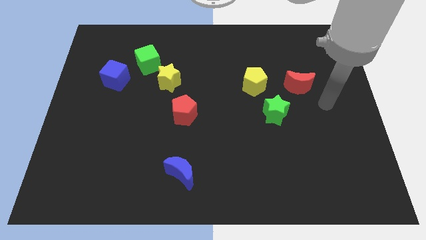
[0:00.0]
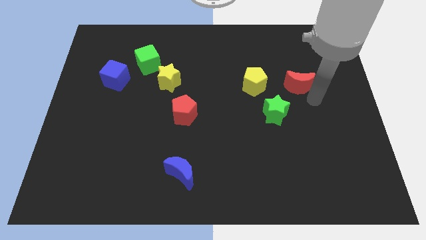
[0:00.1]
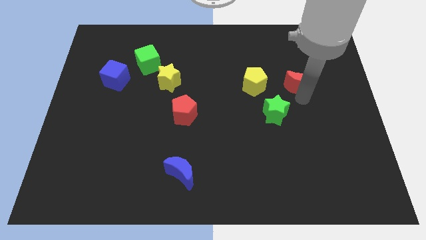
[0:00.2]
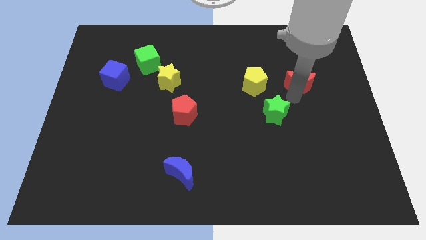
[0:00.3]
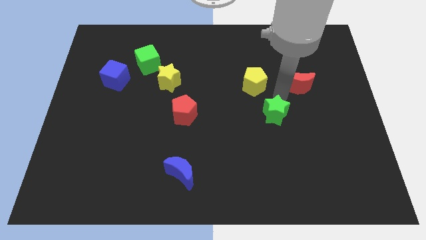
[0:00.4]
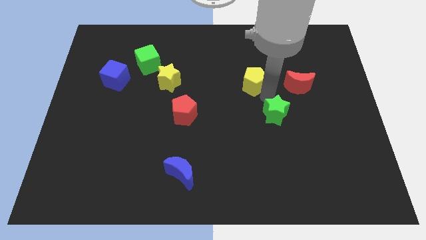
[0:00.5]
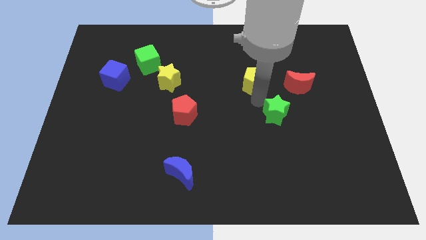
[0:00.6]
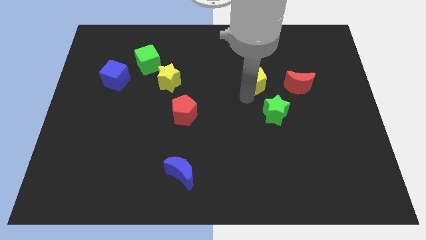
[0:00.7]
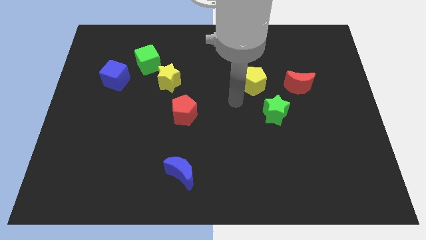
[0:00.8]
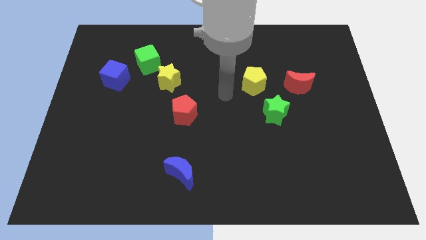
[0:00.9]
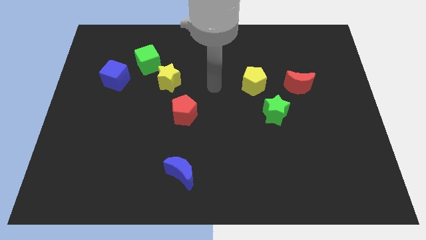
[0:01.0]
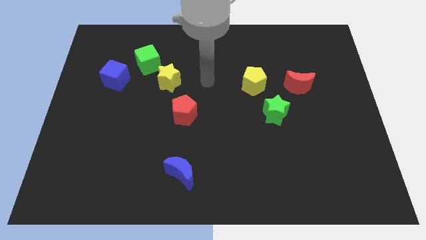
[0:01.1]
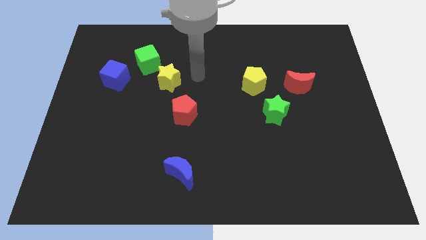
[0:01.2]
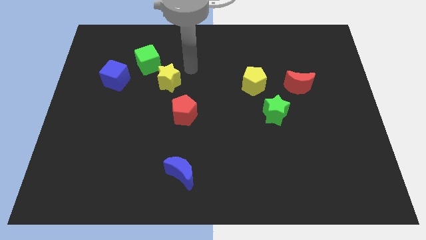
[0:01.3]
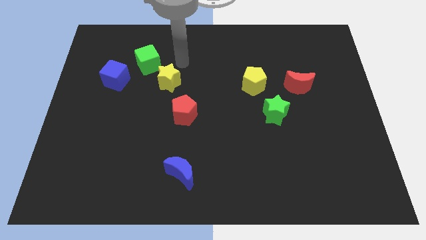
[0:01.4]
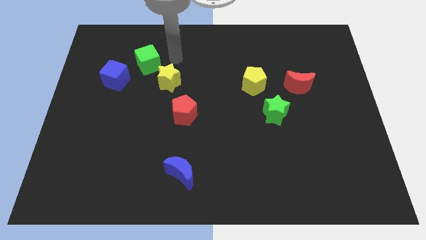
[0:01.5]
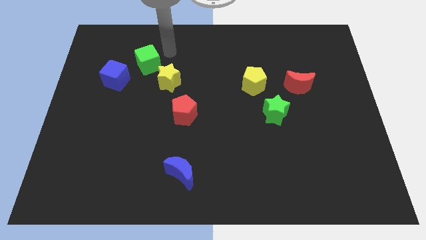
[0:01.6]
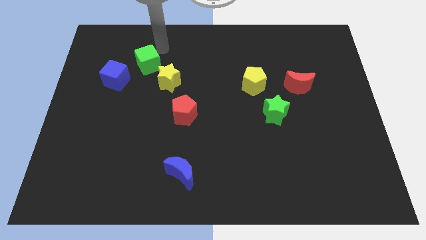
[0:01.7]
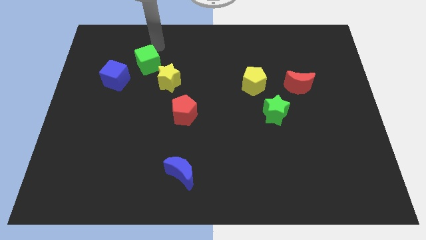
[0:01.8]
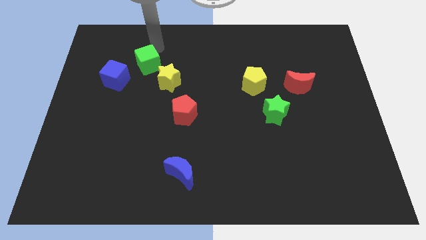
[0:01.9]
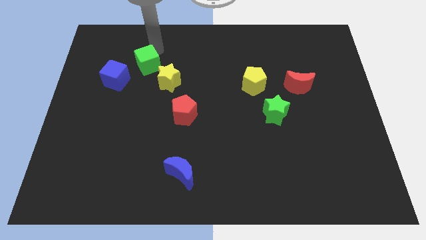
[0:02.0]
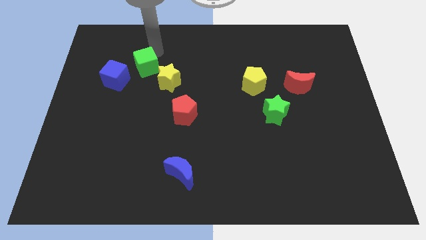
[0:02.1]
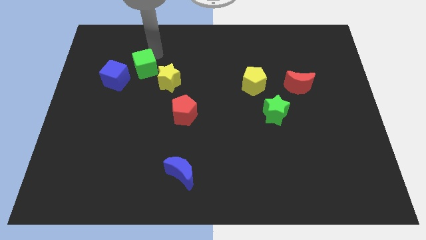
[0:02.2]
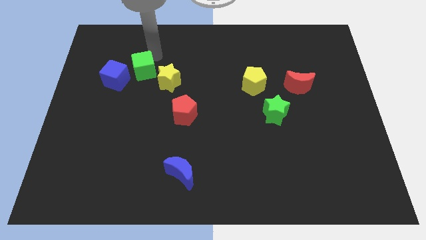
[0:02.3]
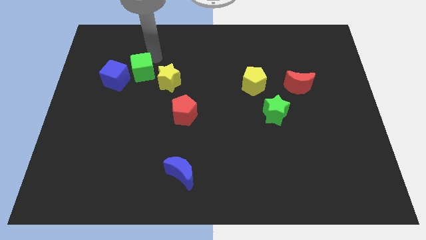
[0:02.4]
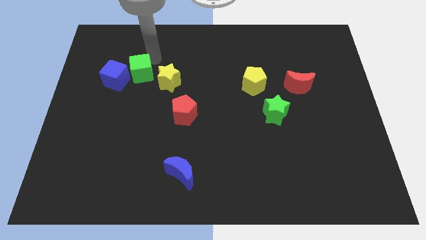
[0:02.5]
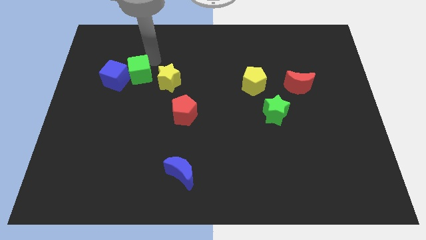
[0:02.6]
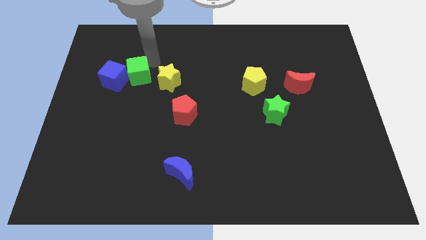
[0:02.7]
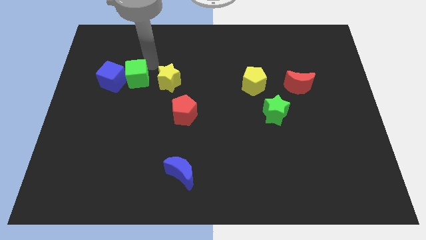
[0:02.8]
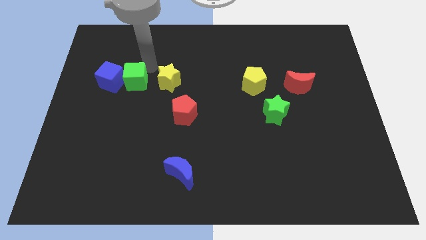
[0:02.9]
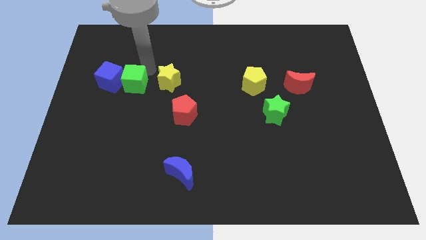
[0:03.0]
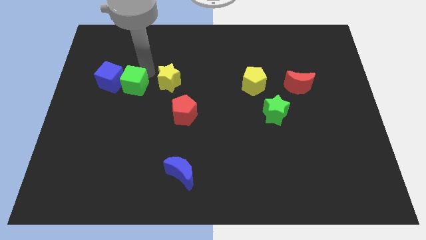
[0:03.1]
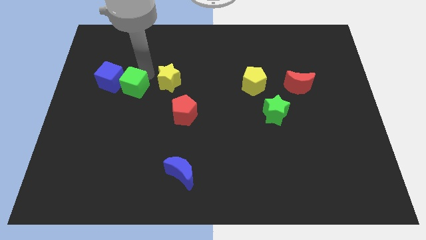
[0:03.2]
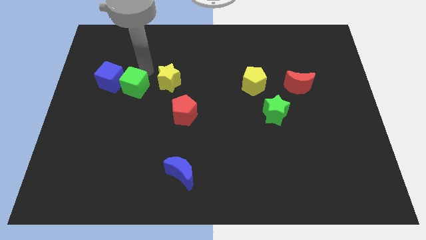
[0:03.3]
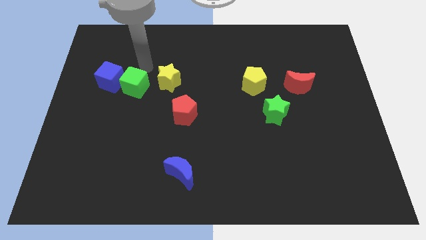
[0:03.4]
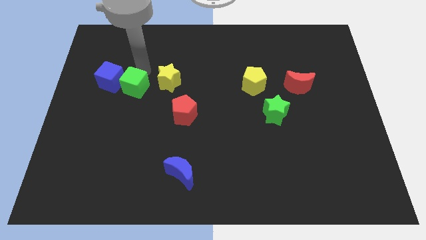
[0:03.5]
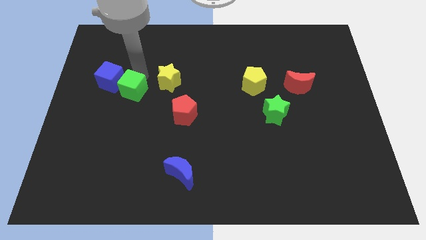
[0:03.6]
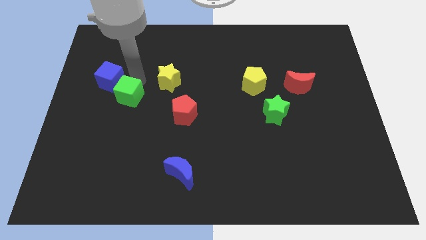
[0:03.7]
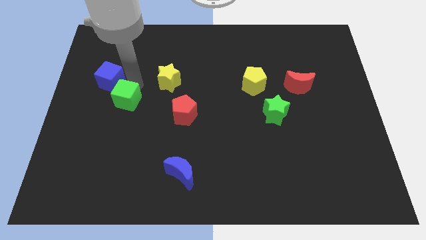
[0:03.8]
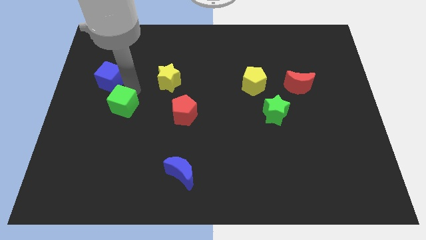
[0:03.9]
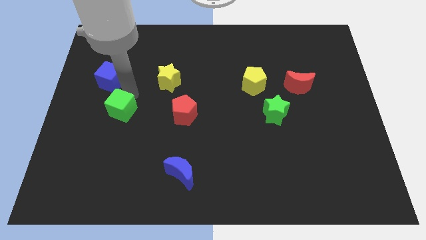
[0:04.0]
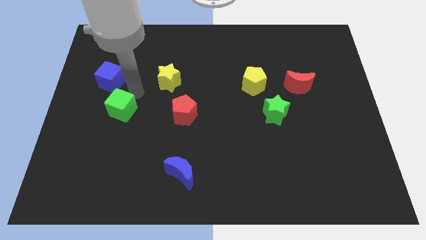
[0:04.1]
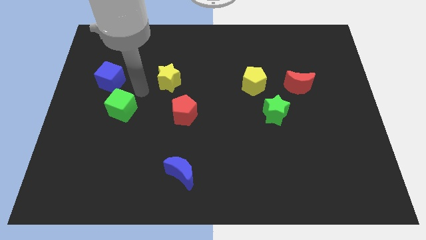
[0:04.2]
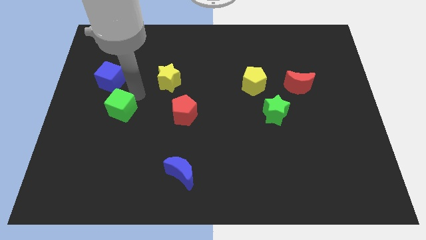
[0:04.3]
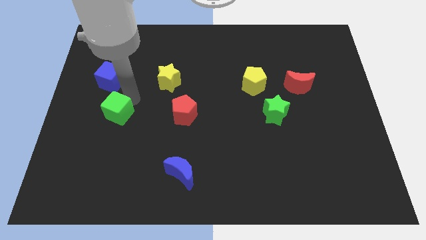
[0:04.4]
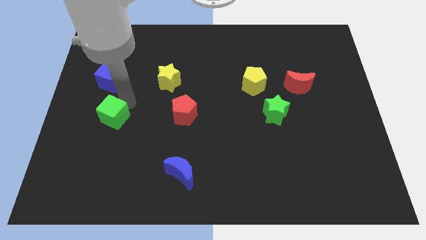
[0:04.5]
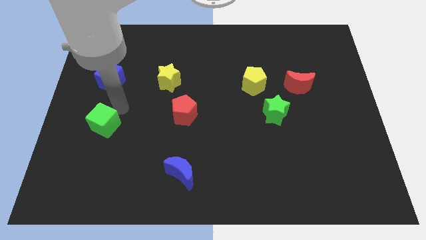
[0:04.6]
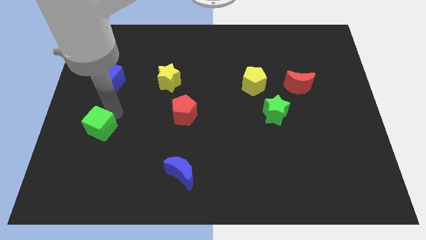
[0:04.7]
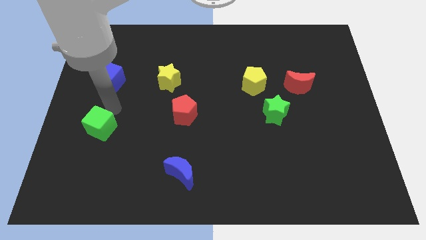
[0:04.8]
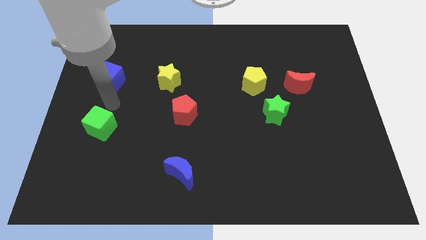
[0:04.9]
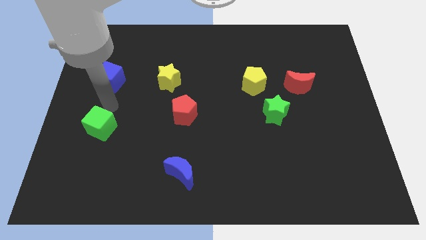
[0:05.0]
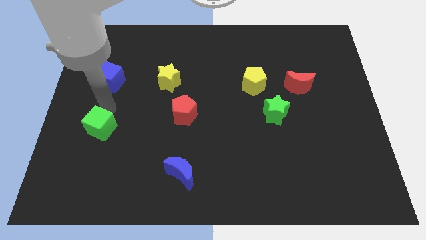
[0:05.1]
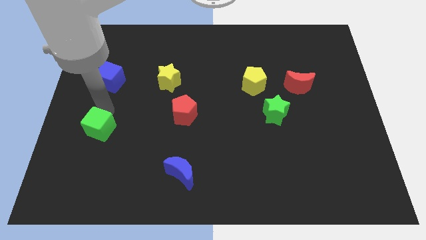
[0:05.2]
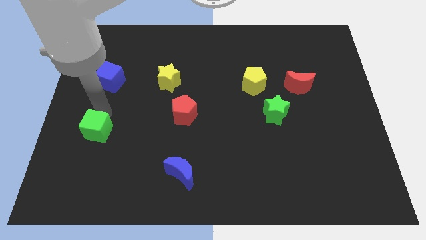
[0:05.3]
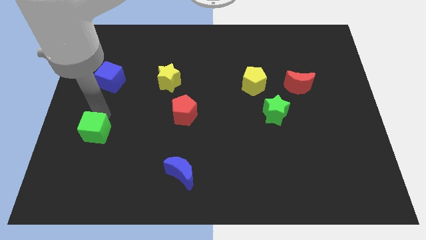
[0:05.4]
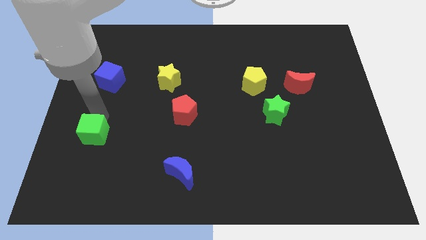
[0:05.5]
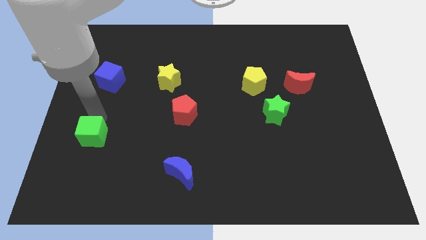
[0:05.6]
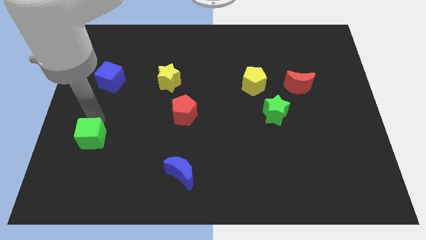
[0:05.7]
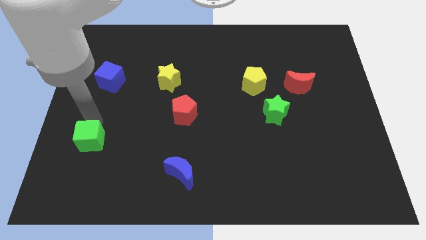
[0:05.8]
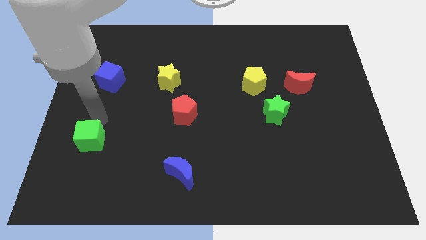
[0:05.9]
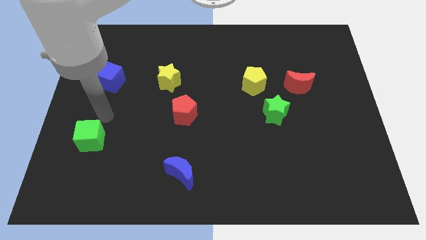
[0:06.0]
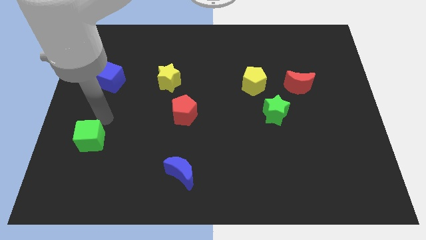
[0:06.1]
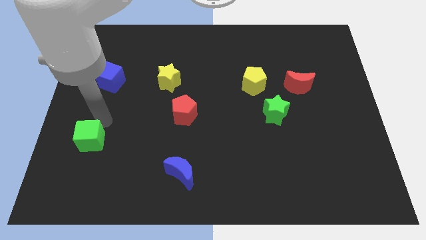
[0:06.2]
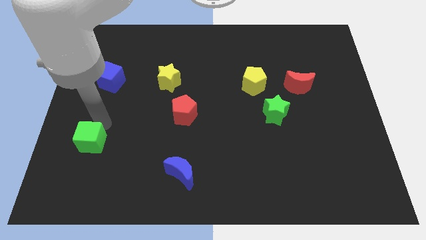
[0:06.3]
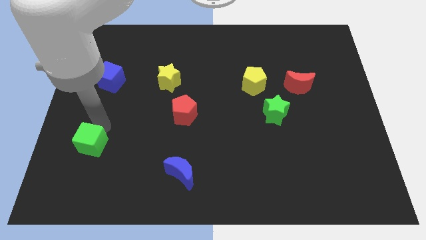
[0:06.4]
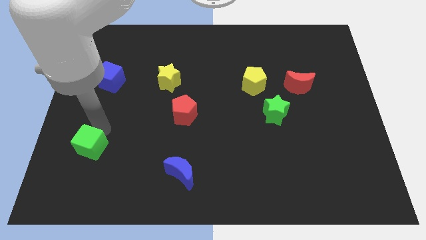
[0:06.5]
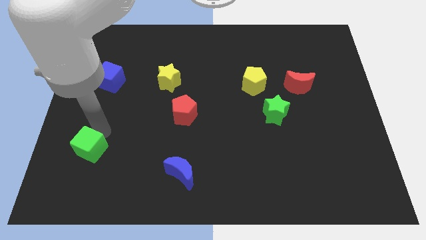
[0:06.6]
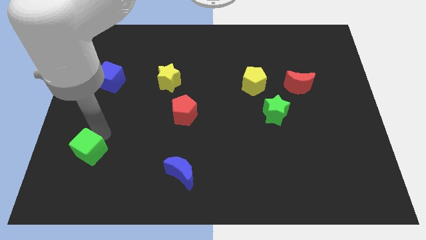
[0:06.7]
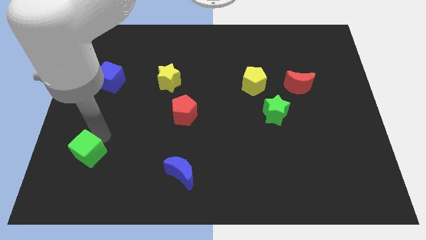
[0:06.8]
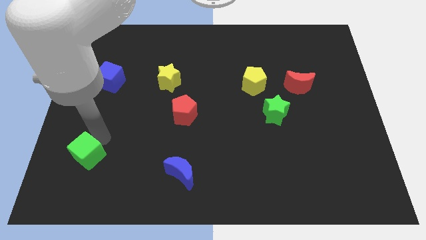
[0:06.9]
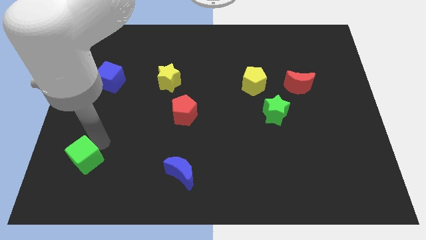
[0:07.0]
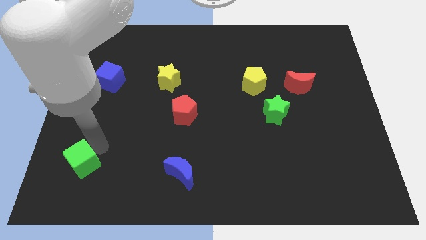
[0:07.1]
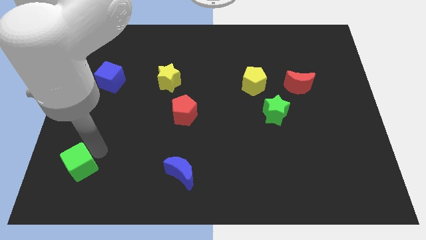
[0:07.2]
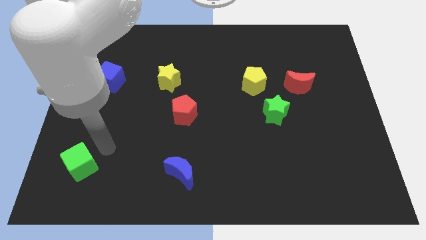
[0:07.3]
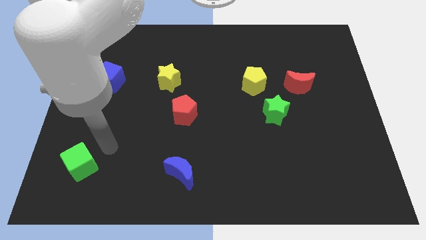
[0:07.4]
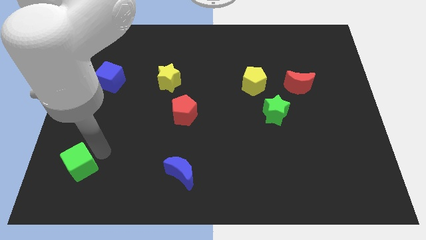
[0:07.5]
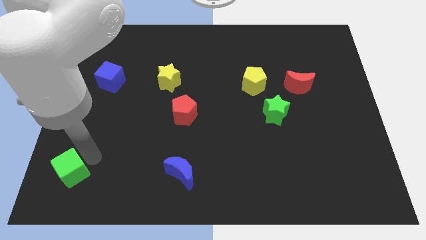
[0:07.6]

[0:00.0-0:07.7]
slide the green cube to the lower left corner
